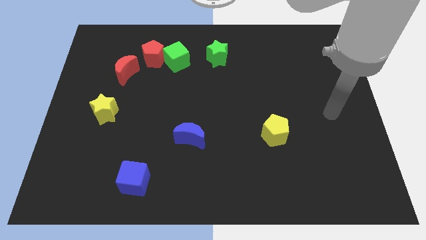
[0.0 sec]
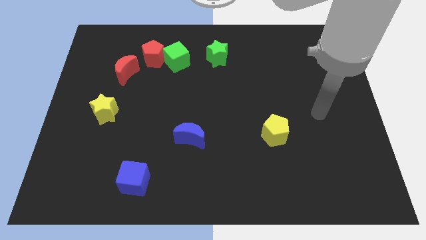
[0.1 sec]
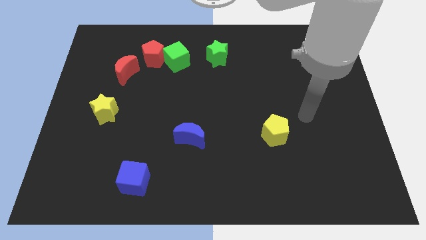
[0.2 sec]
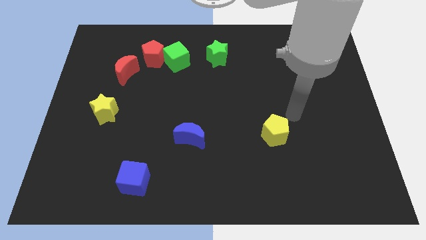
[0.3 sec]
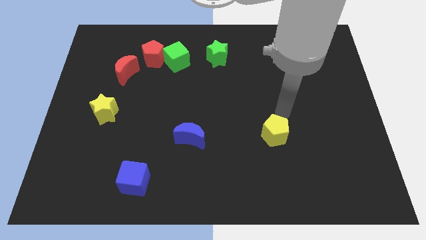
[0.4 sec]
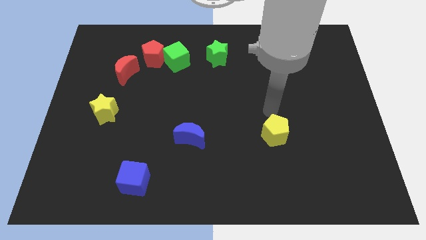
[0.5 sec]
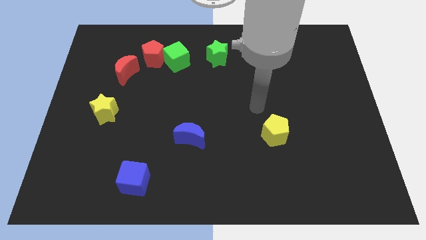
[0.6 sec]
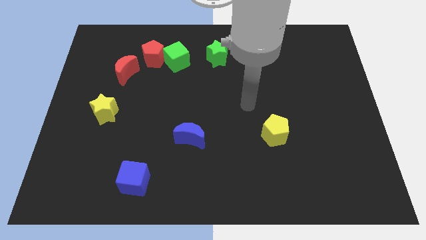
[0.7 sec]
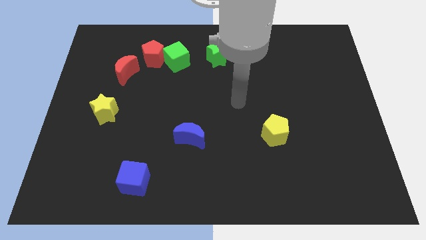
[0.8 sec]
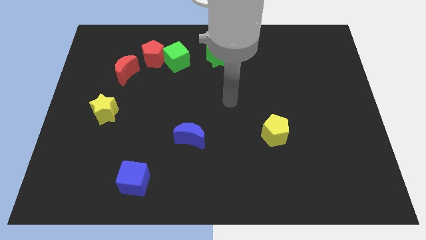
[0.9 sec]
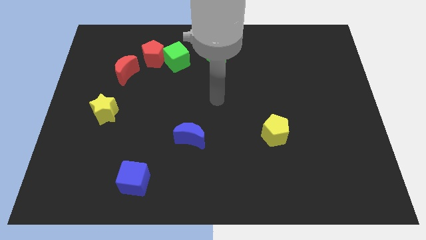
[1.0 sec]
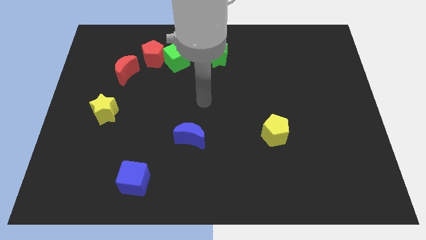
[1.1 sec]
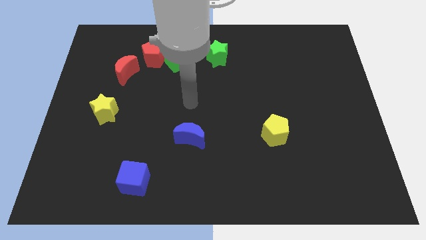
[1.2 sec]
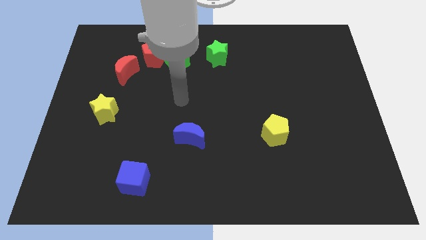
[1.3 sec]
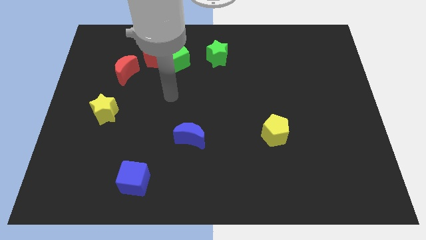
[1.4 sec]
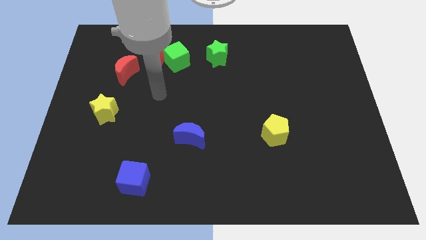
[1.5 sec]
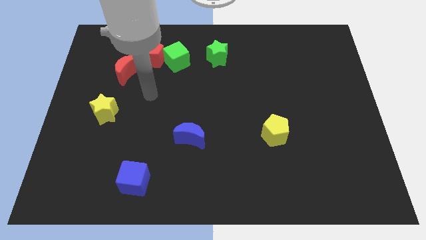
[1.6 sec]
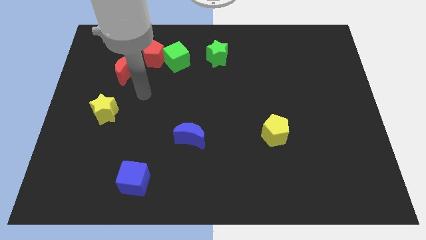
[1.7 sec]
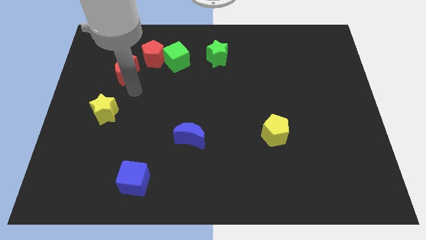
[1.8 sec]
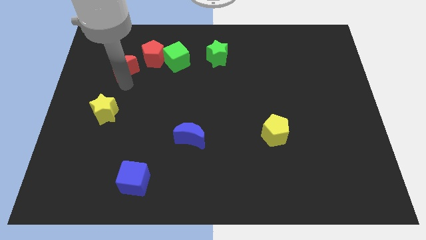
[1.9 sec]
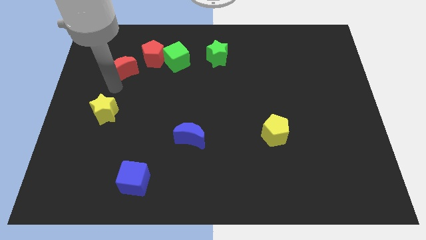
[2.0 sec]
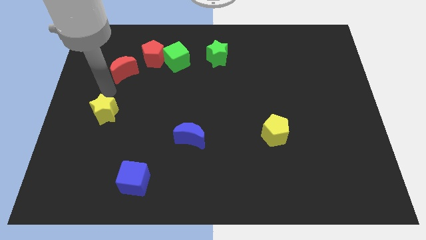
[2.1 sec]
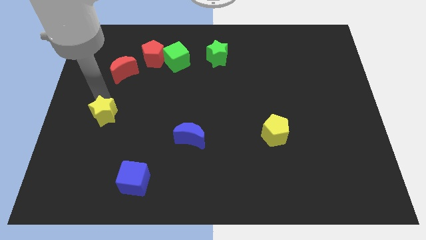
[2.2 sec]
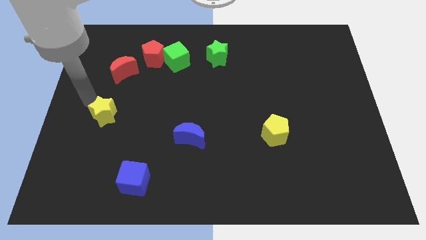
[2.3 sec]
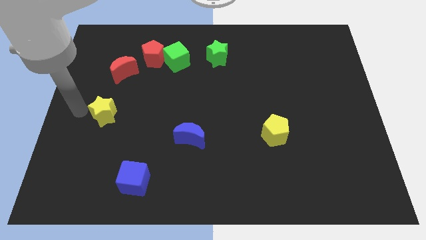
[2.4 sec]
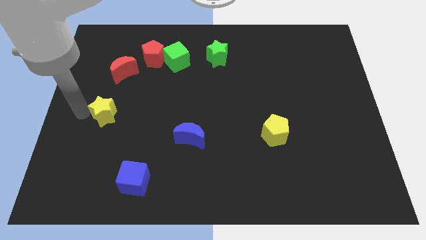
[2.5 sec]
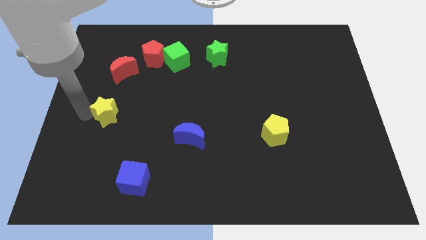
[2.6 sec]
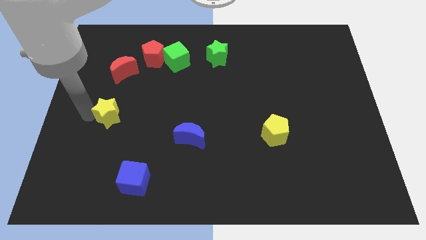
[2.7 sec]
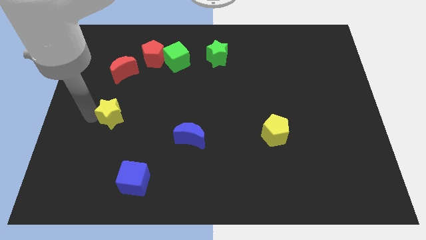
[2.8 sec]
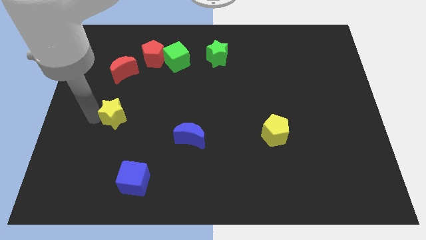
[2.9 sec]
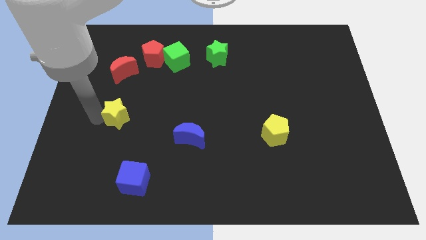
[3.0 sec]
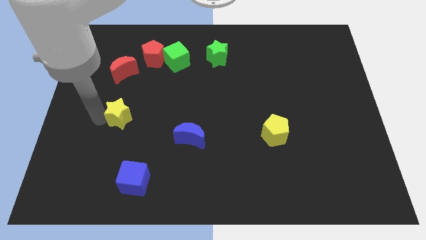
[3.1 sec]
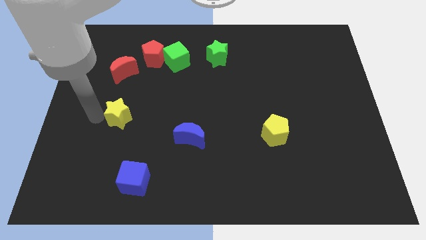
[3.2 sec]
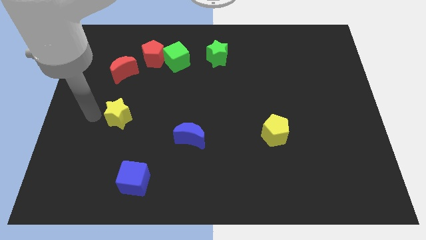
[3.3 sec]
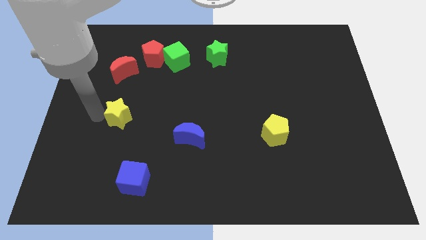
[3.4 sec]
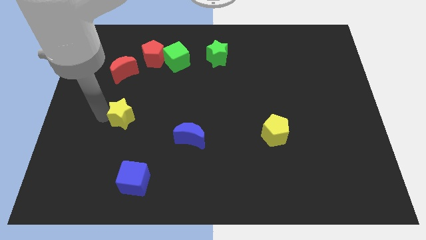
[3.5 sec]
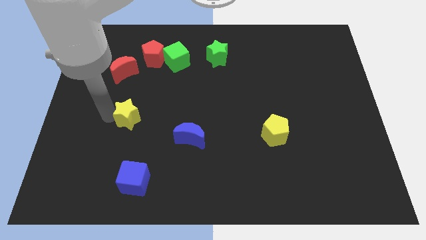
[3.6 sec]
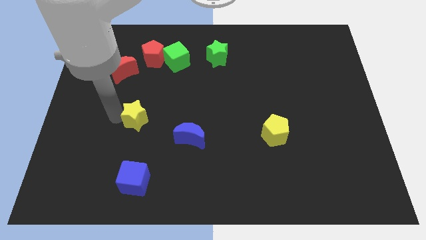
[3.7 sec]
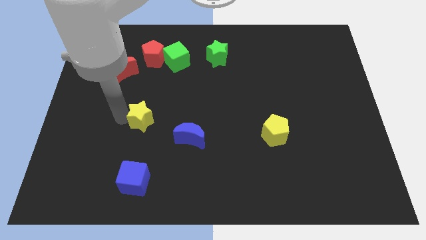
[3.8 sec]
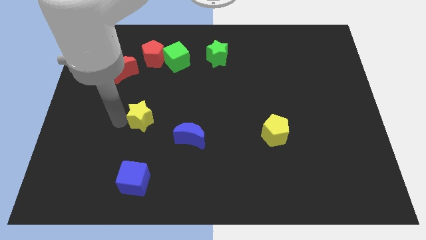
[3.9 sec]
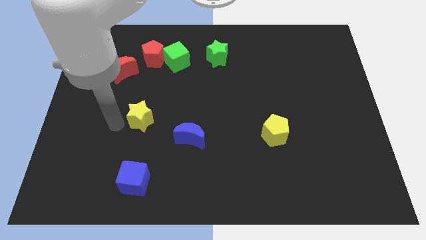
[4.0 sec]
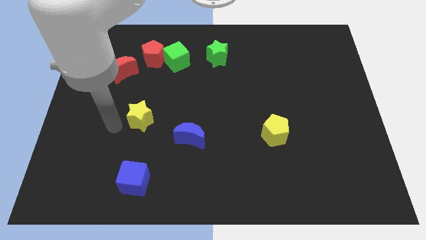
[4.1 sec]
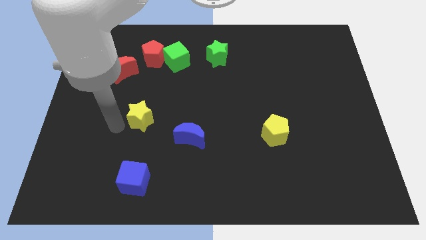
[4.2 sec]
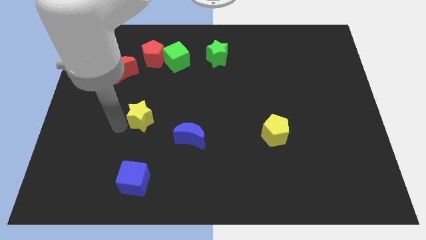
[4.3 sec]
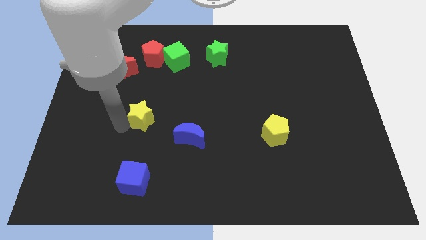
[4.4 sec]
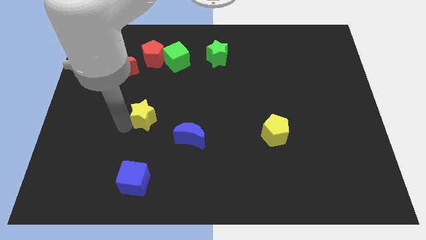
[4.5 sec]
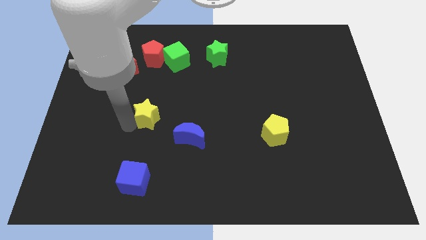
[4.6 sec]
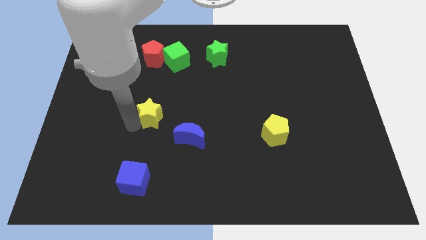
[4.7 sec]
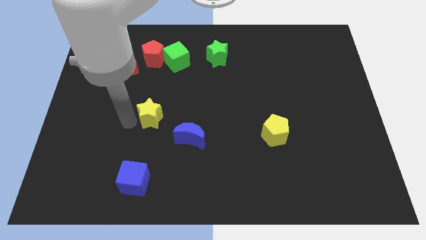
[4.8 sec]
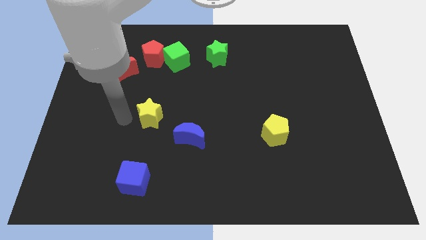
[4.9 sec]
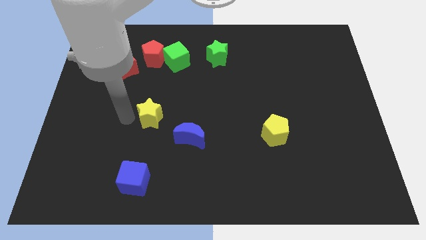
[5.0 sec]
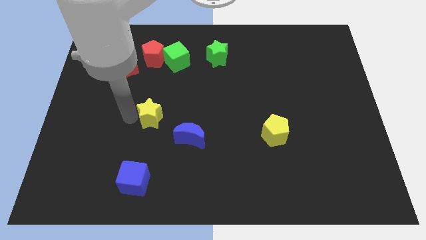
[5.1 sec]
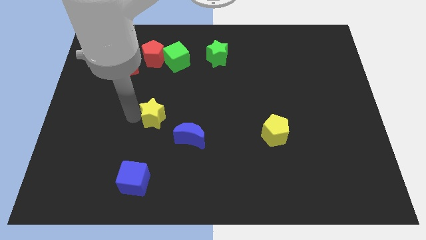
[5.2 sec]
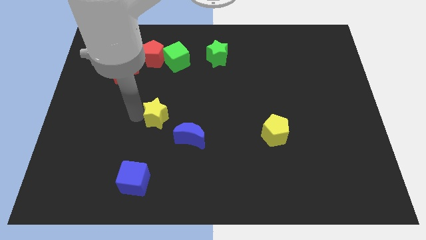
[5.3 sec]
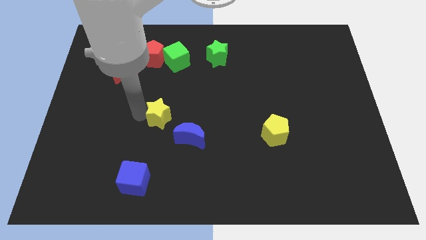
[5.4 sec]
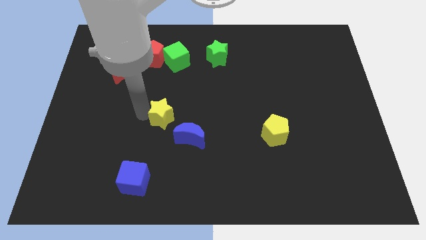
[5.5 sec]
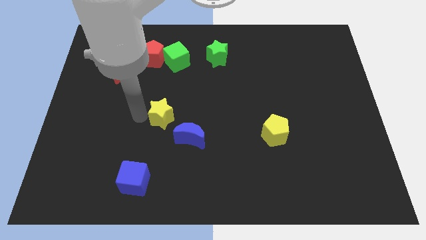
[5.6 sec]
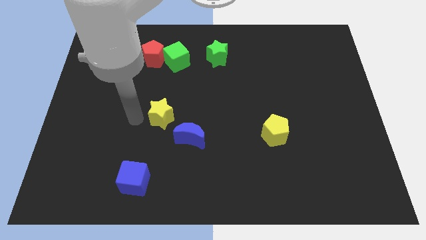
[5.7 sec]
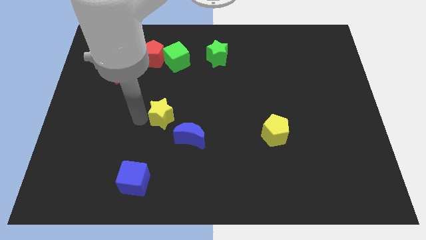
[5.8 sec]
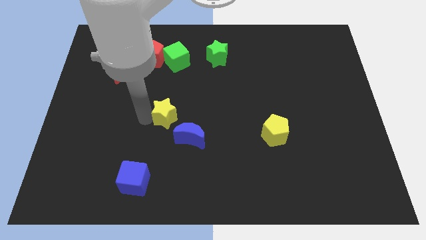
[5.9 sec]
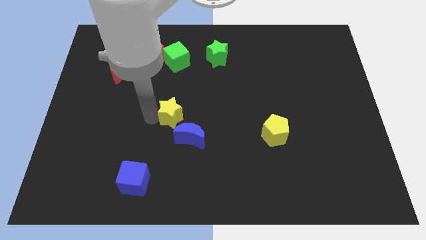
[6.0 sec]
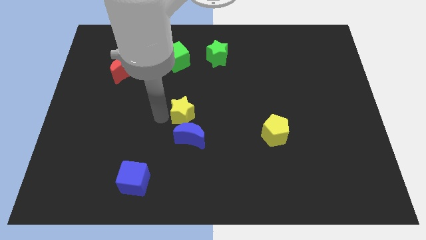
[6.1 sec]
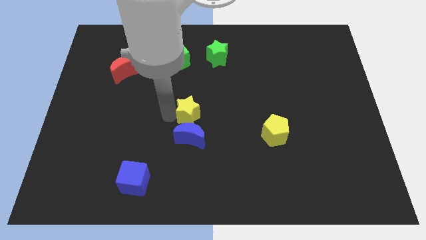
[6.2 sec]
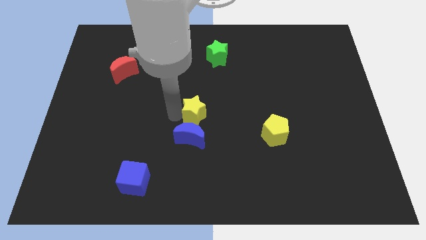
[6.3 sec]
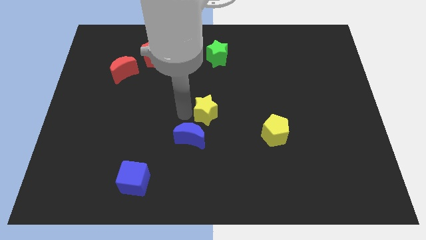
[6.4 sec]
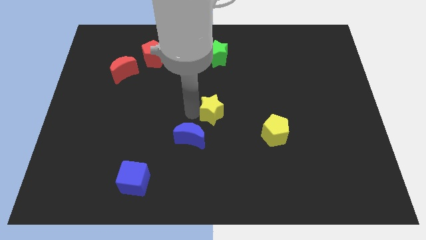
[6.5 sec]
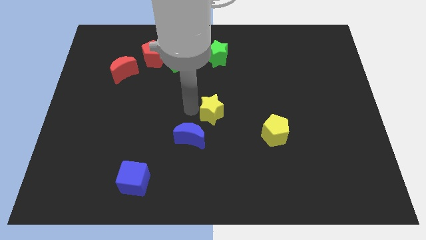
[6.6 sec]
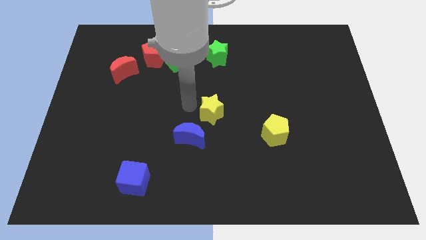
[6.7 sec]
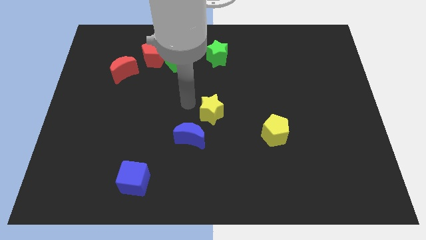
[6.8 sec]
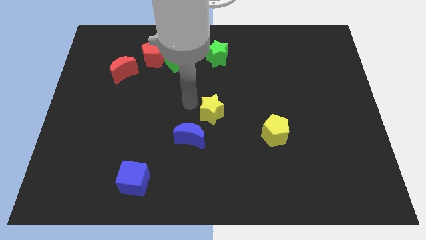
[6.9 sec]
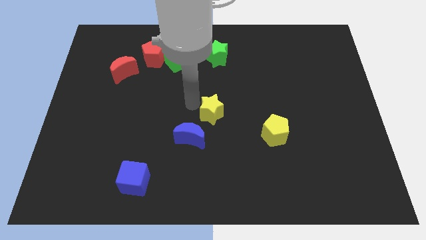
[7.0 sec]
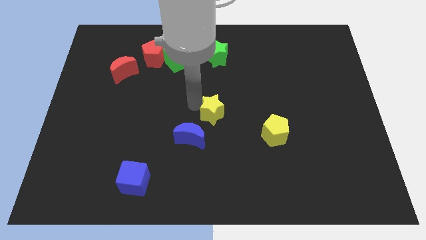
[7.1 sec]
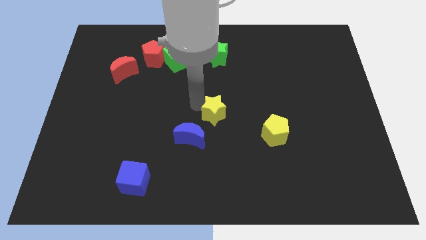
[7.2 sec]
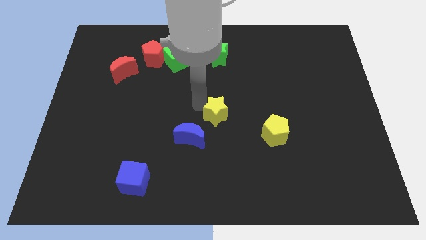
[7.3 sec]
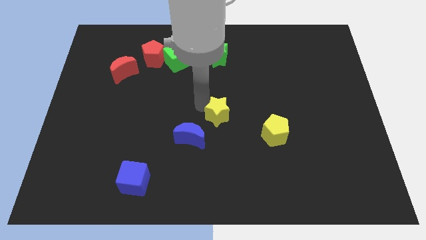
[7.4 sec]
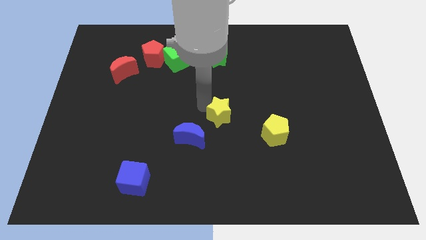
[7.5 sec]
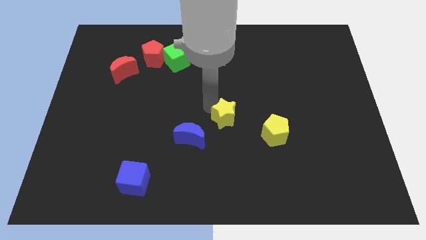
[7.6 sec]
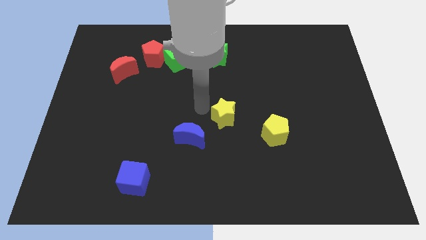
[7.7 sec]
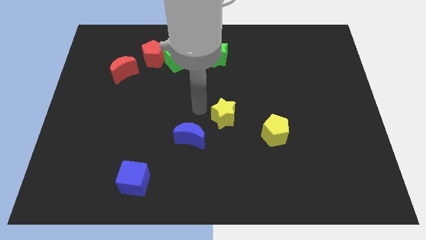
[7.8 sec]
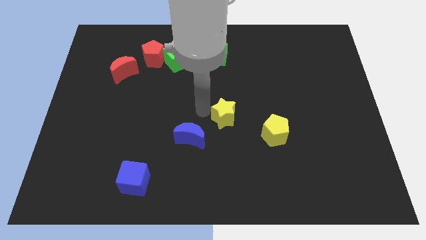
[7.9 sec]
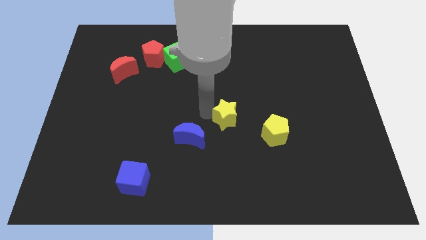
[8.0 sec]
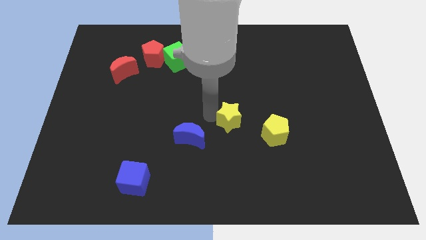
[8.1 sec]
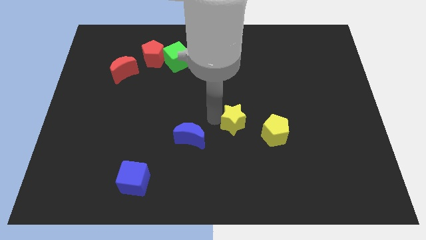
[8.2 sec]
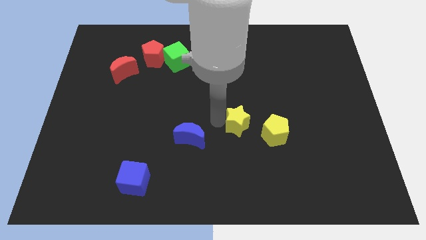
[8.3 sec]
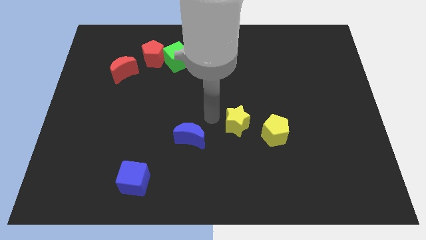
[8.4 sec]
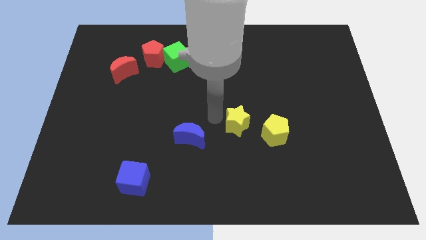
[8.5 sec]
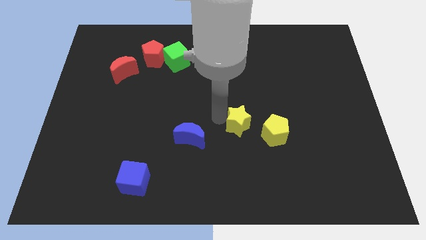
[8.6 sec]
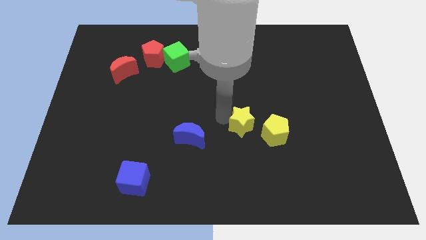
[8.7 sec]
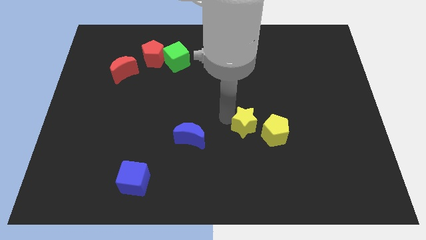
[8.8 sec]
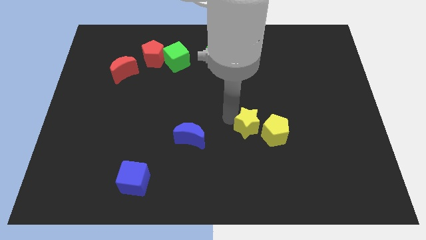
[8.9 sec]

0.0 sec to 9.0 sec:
slide the yellow star next to the yellow pentagon
